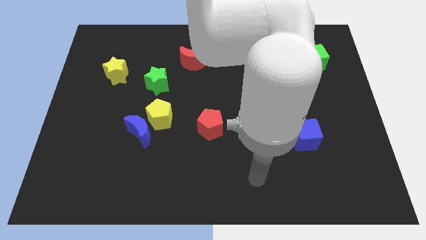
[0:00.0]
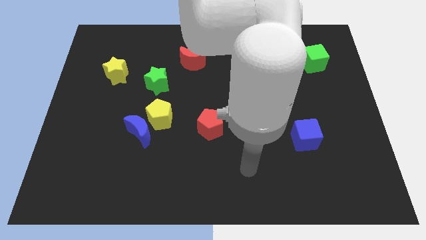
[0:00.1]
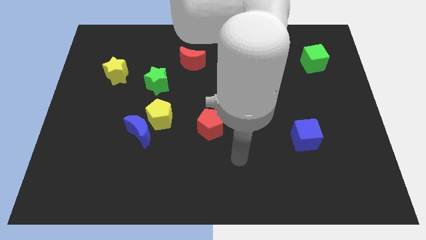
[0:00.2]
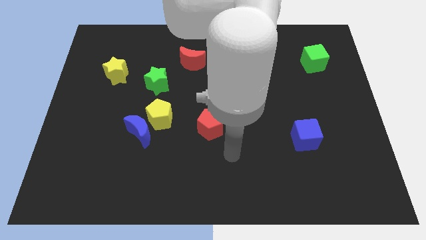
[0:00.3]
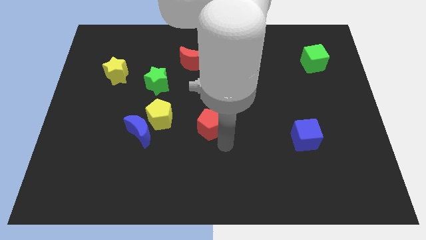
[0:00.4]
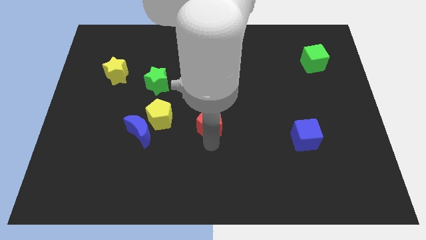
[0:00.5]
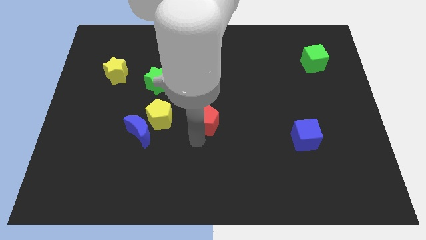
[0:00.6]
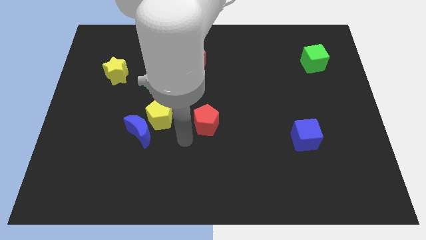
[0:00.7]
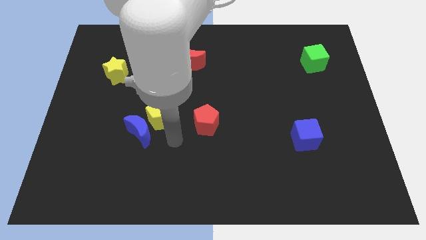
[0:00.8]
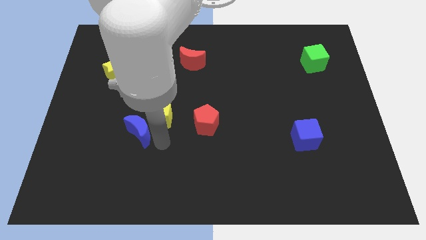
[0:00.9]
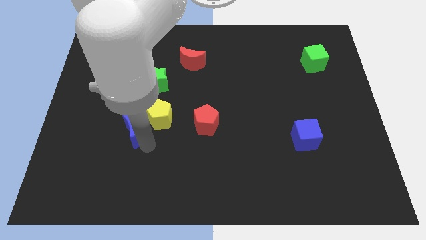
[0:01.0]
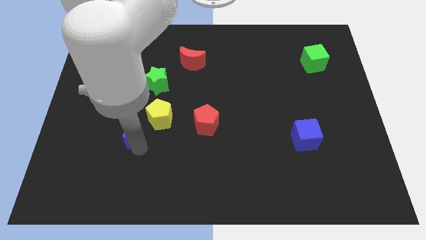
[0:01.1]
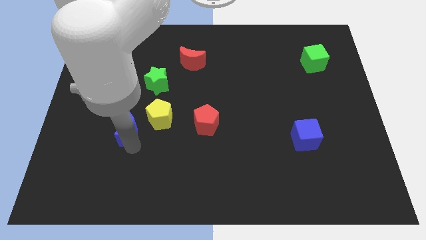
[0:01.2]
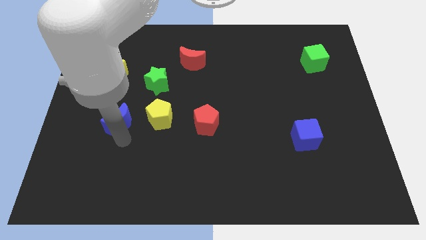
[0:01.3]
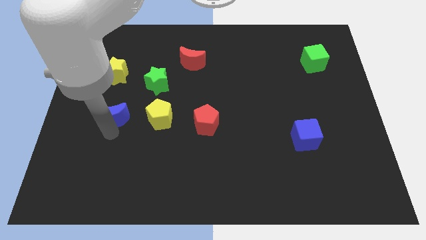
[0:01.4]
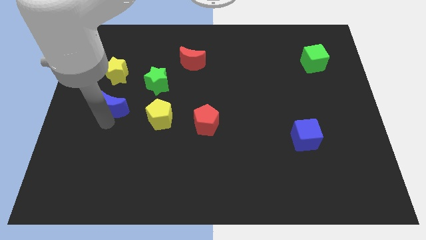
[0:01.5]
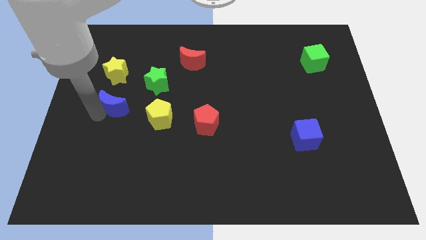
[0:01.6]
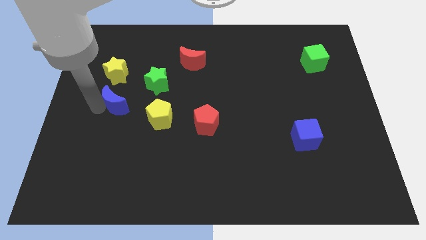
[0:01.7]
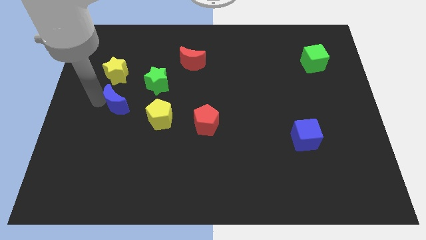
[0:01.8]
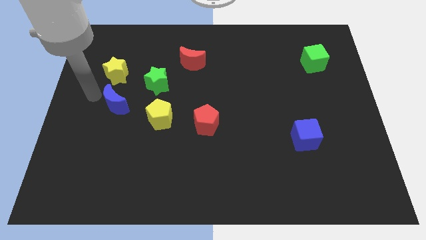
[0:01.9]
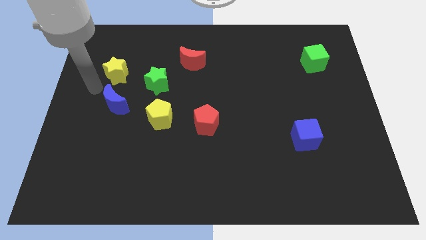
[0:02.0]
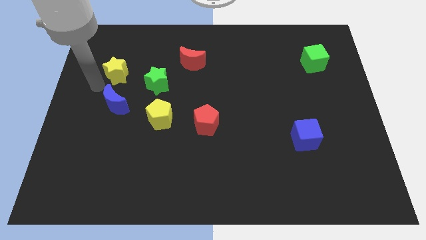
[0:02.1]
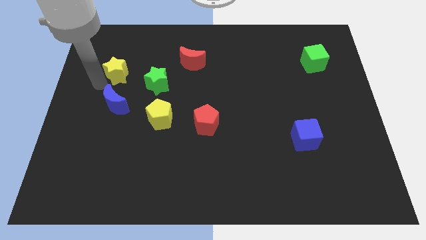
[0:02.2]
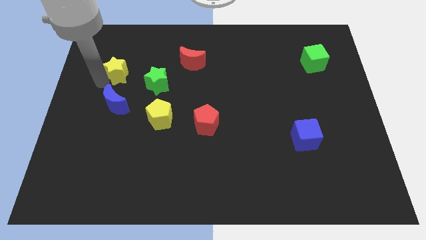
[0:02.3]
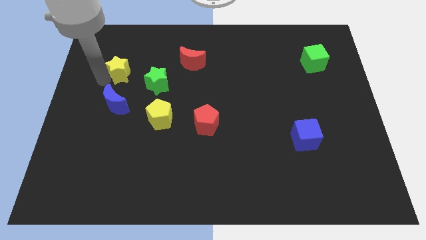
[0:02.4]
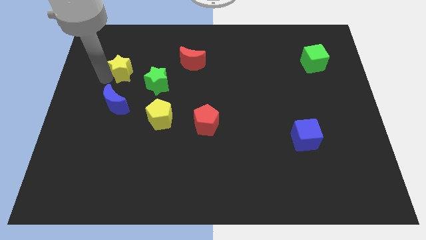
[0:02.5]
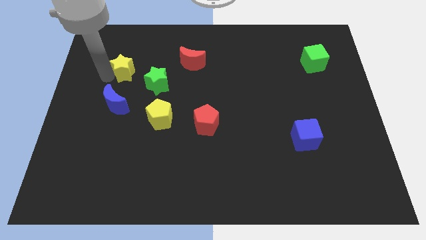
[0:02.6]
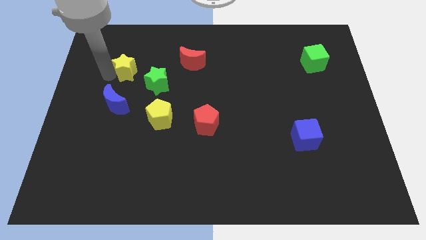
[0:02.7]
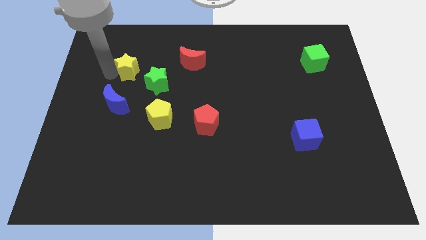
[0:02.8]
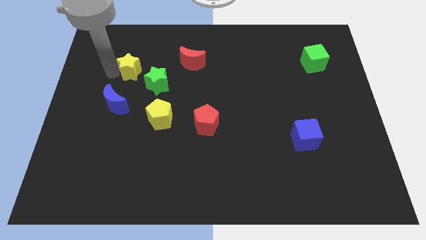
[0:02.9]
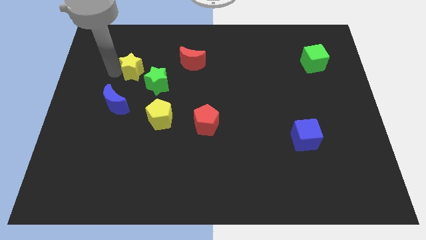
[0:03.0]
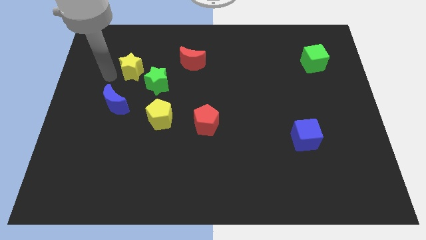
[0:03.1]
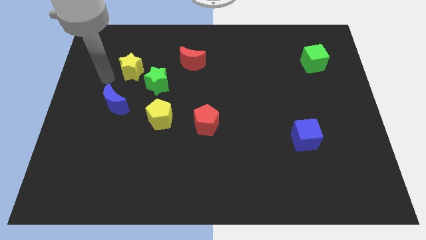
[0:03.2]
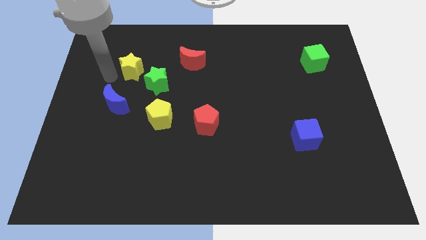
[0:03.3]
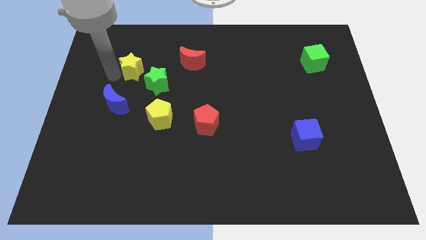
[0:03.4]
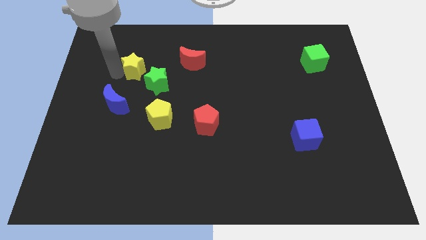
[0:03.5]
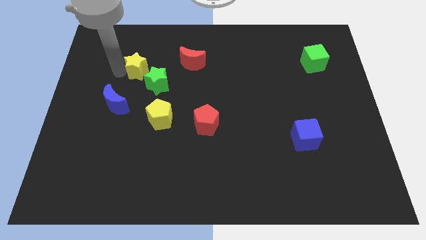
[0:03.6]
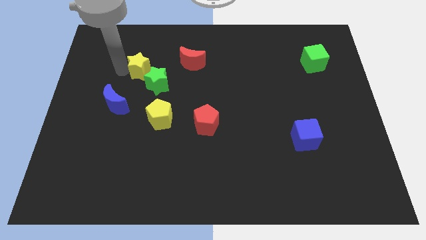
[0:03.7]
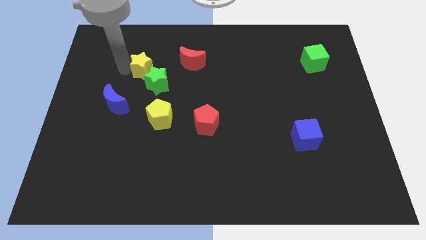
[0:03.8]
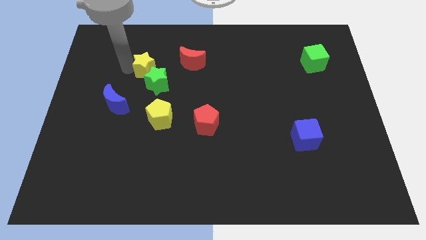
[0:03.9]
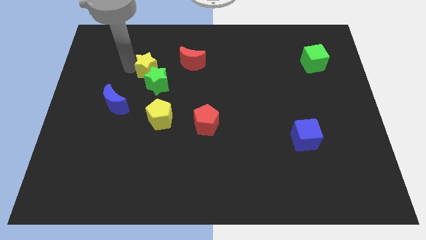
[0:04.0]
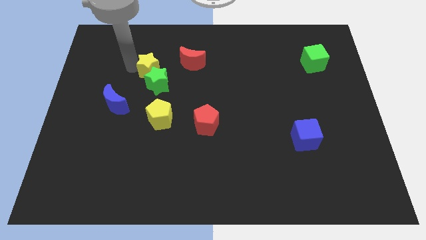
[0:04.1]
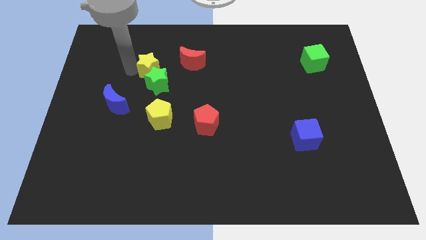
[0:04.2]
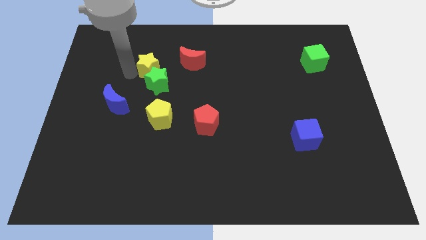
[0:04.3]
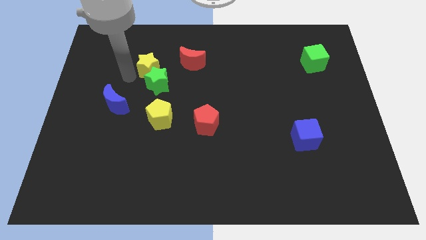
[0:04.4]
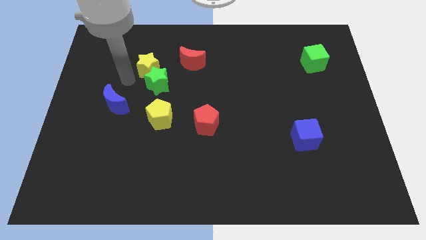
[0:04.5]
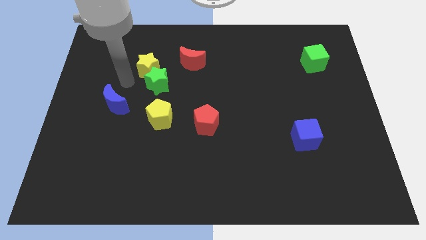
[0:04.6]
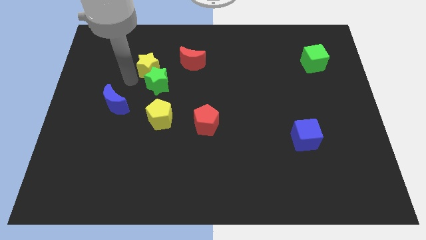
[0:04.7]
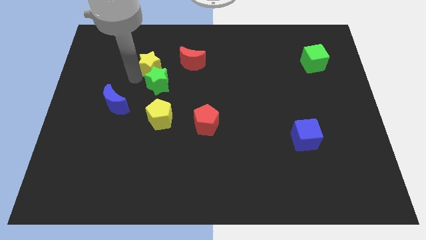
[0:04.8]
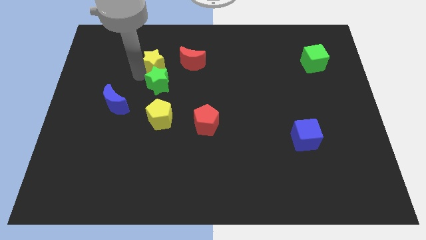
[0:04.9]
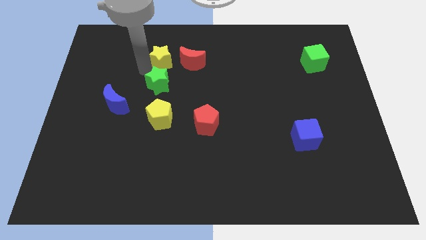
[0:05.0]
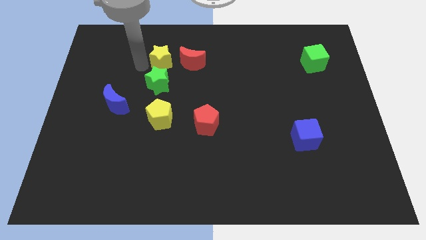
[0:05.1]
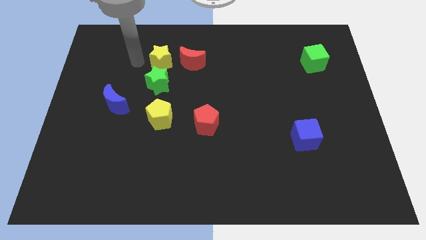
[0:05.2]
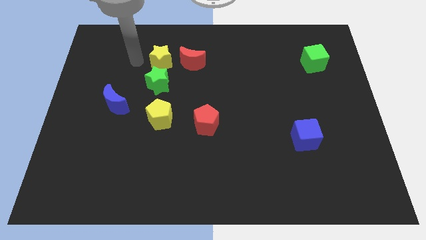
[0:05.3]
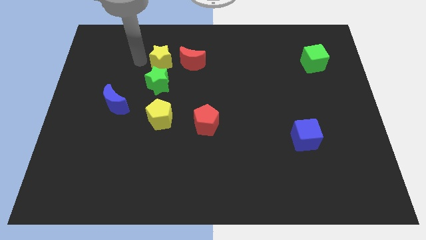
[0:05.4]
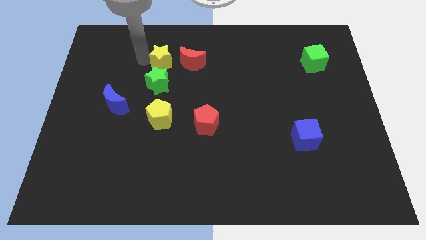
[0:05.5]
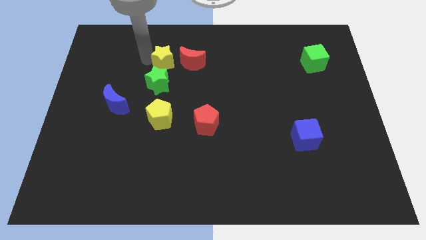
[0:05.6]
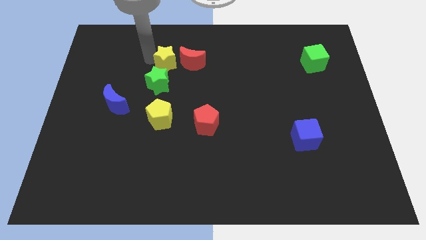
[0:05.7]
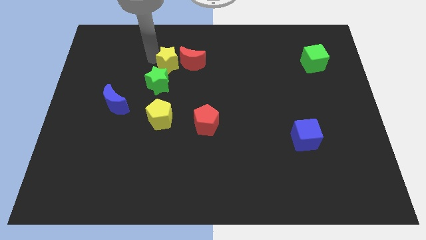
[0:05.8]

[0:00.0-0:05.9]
push the yellow star towards the red moon

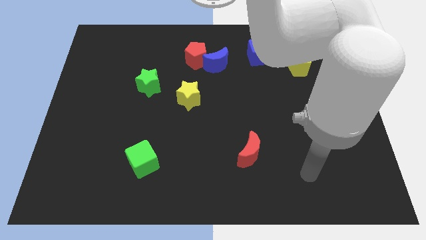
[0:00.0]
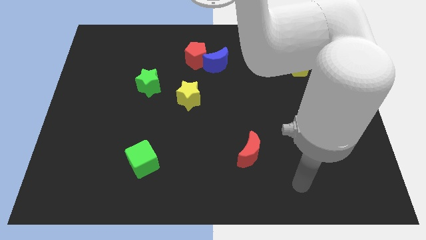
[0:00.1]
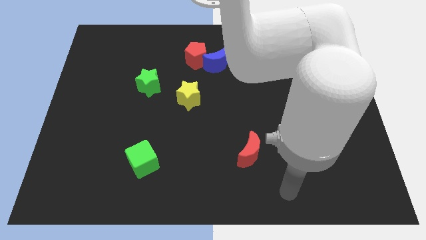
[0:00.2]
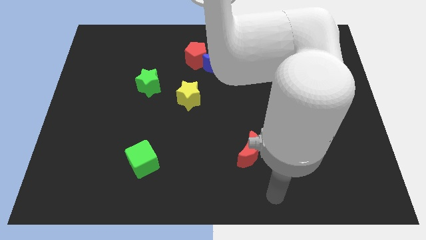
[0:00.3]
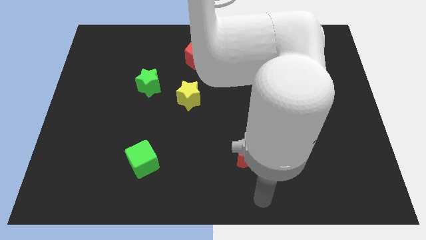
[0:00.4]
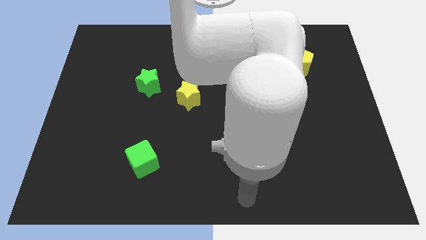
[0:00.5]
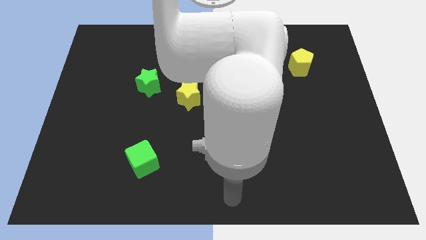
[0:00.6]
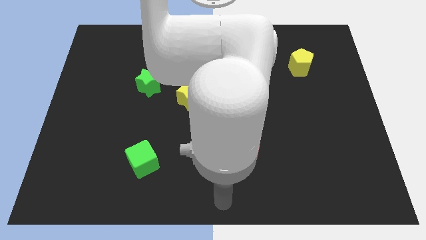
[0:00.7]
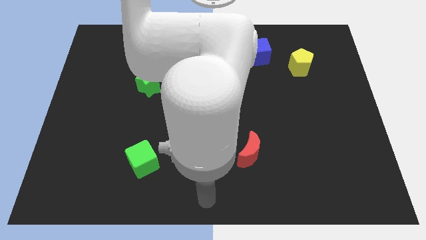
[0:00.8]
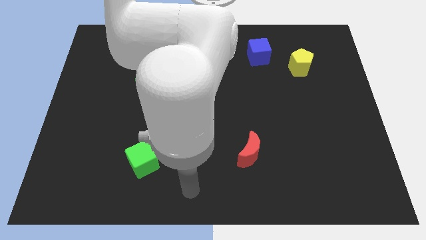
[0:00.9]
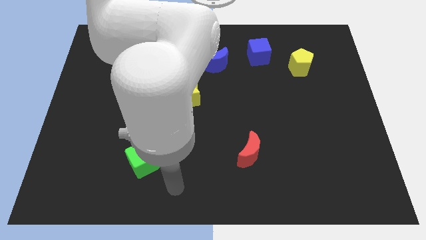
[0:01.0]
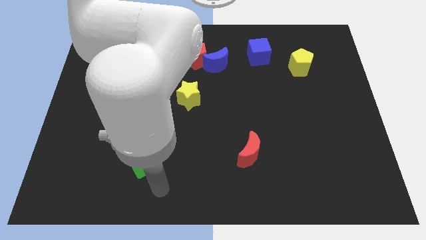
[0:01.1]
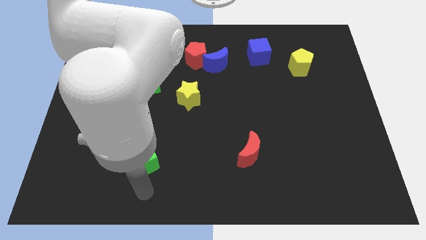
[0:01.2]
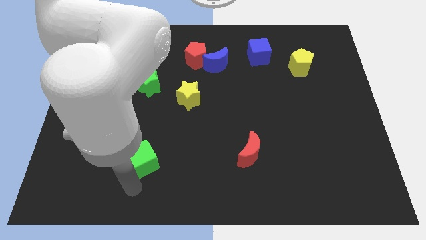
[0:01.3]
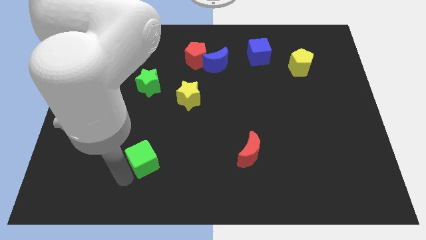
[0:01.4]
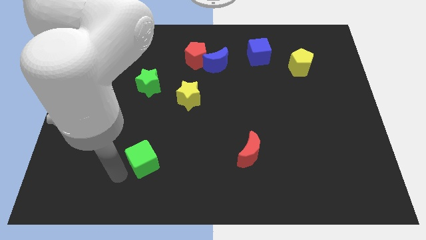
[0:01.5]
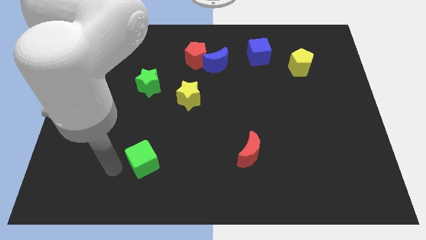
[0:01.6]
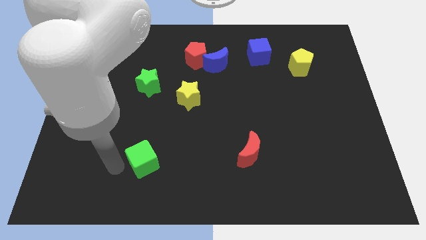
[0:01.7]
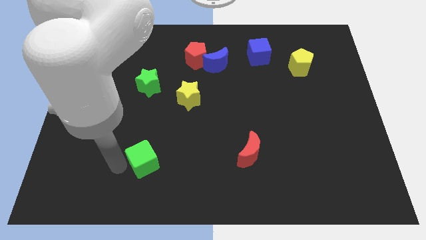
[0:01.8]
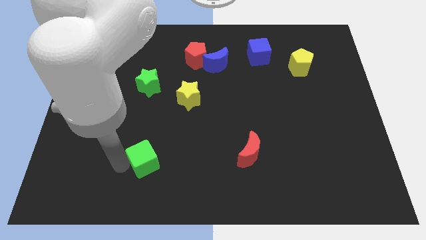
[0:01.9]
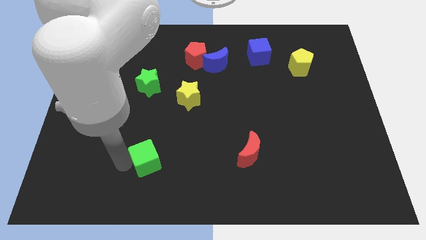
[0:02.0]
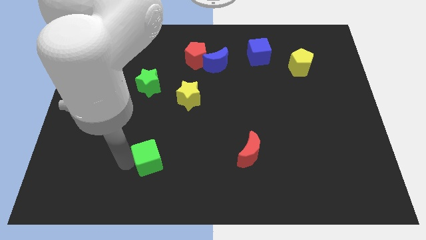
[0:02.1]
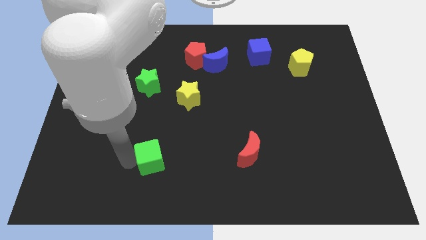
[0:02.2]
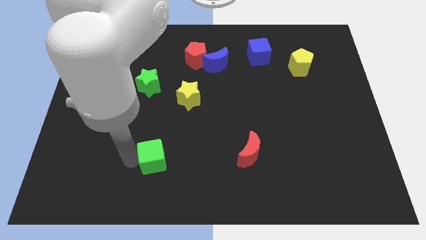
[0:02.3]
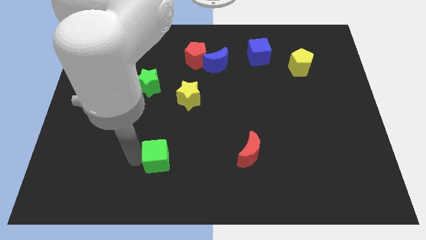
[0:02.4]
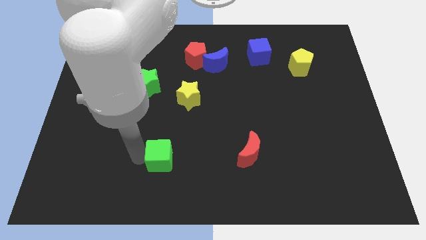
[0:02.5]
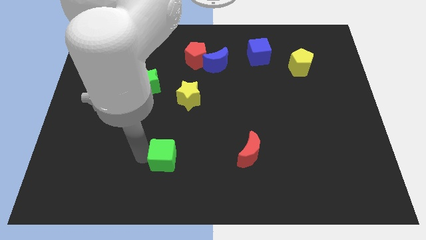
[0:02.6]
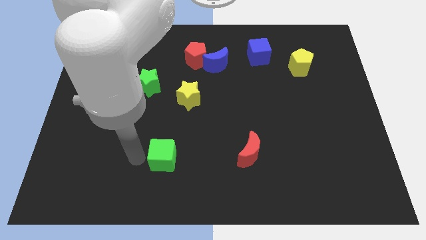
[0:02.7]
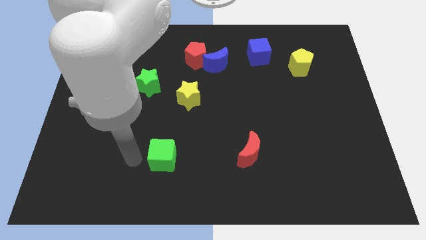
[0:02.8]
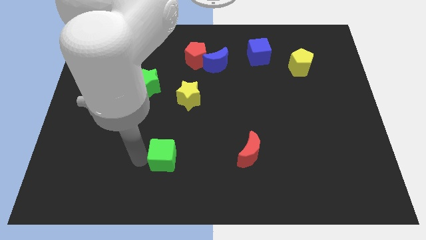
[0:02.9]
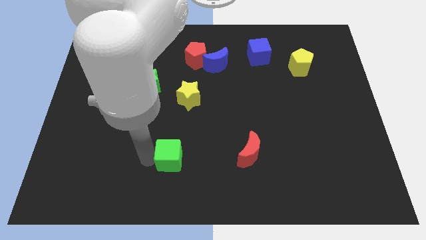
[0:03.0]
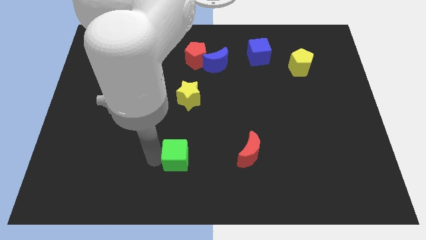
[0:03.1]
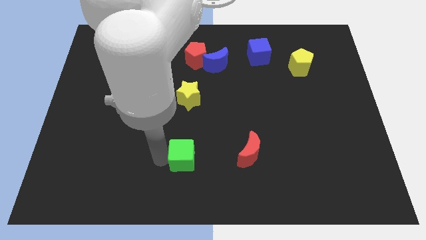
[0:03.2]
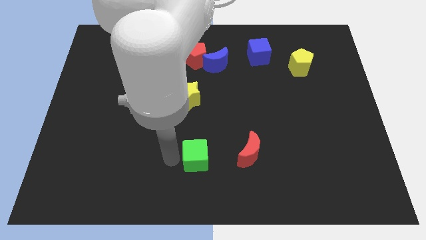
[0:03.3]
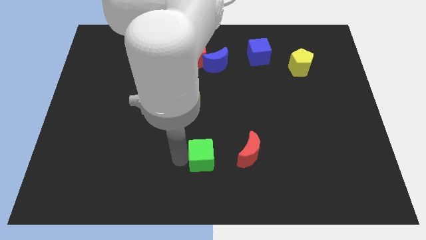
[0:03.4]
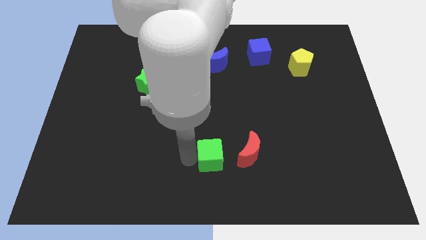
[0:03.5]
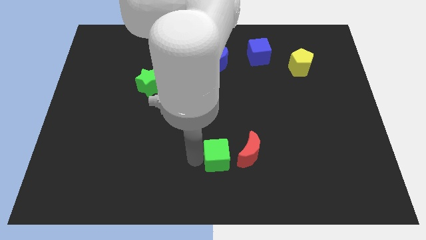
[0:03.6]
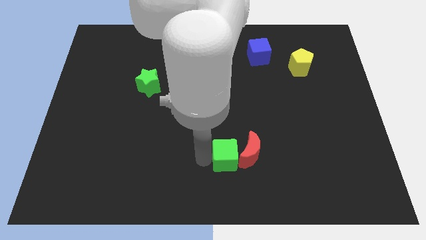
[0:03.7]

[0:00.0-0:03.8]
move the green cube close to the red moon
